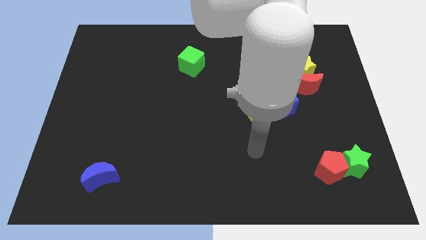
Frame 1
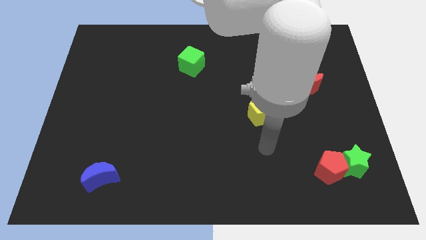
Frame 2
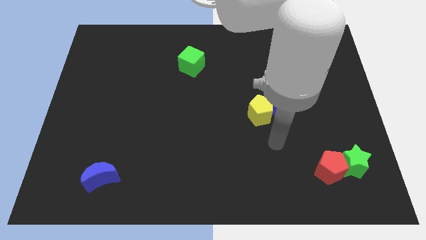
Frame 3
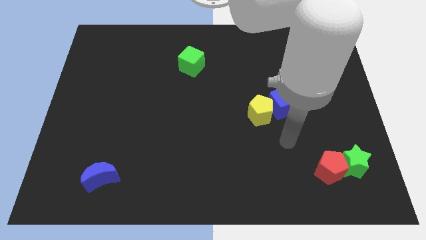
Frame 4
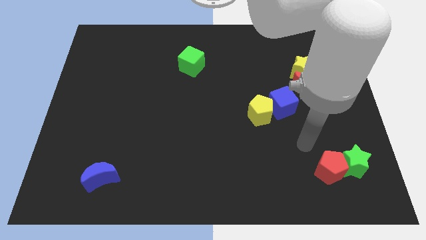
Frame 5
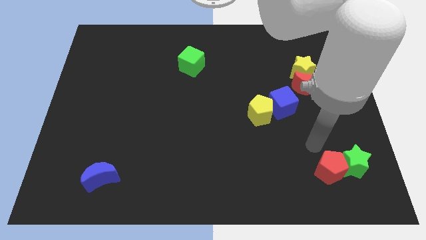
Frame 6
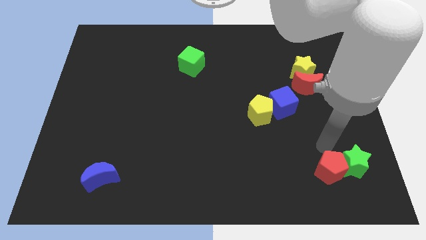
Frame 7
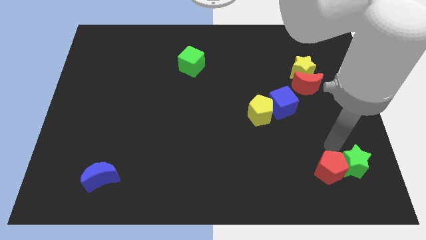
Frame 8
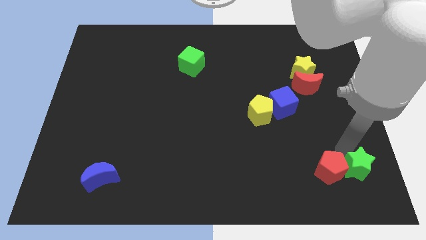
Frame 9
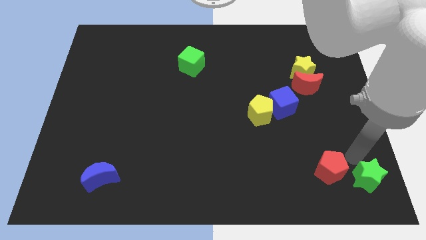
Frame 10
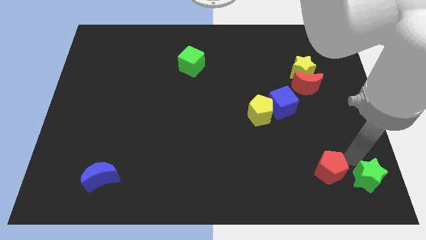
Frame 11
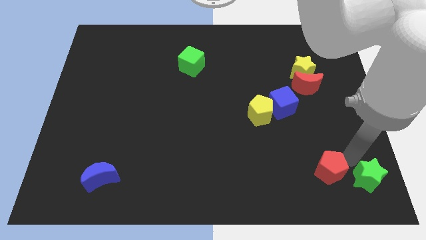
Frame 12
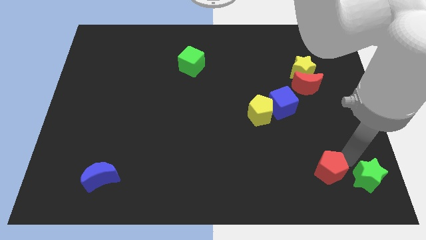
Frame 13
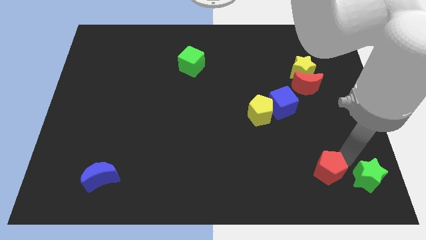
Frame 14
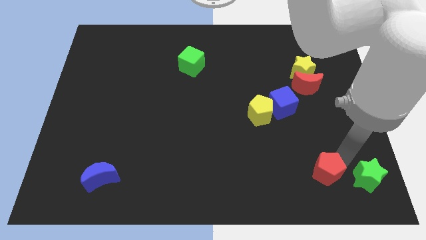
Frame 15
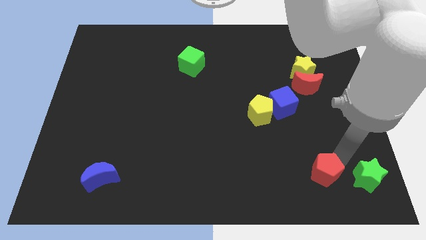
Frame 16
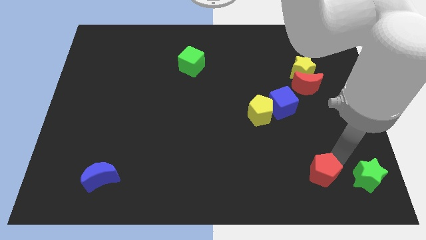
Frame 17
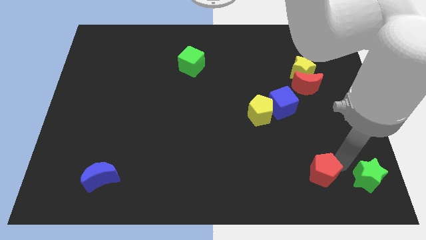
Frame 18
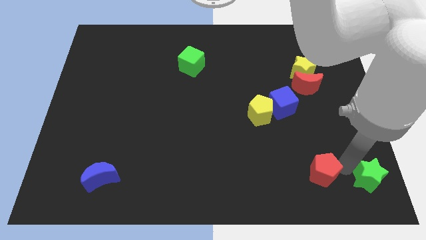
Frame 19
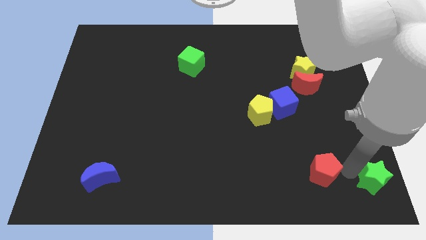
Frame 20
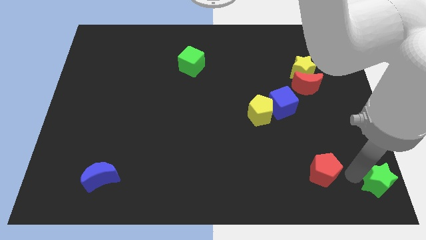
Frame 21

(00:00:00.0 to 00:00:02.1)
move the red pentagon away from the green star

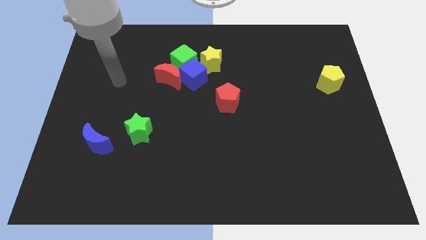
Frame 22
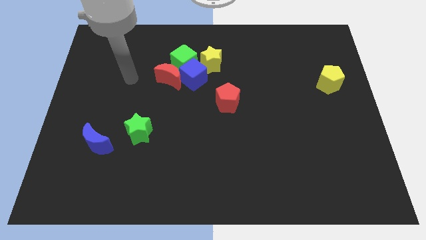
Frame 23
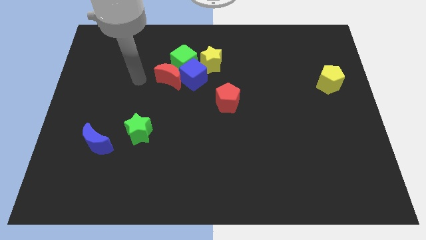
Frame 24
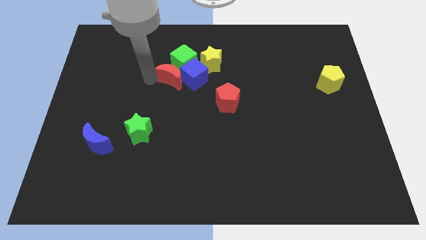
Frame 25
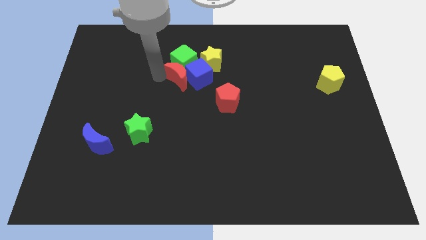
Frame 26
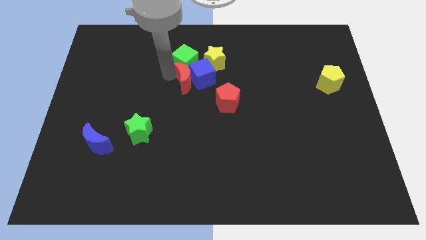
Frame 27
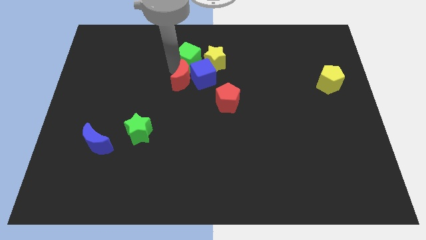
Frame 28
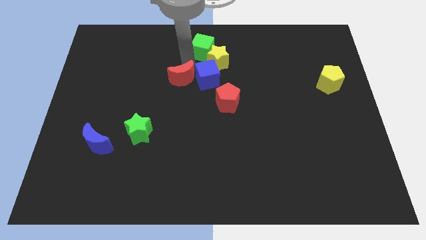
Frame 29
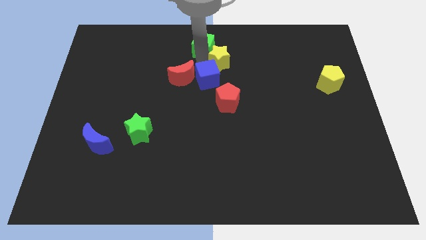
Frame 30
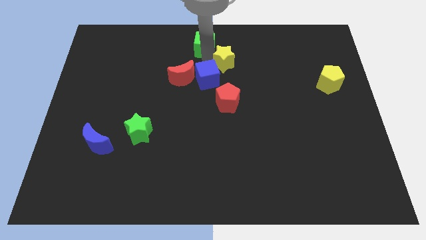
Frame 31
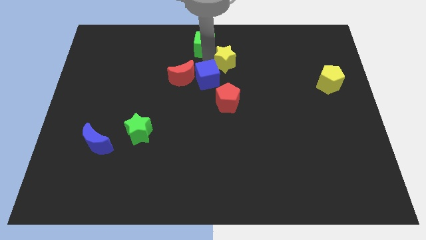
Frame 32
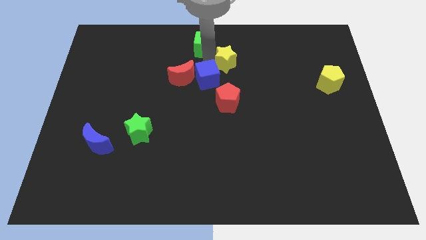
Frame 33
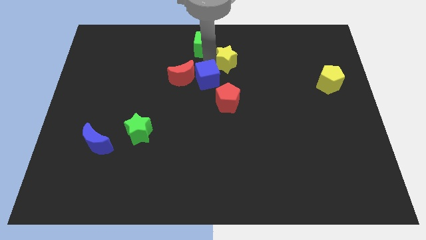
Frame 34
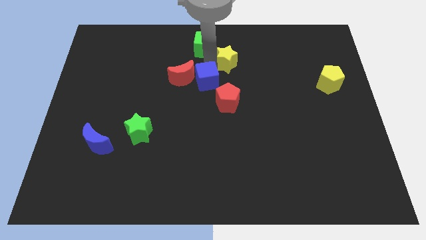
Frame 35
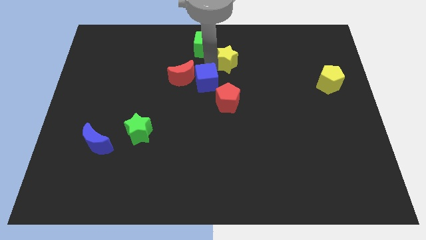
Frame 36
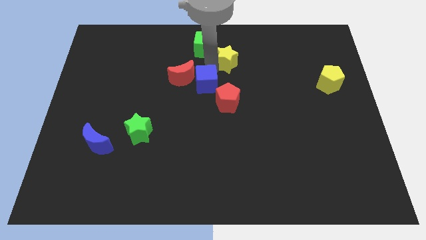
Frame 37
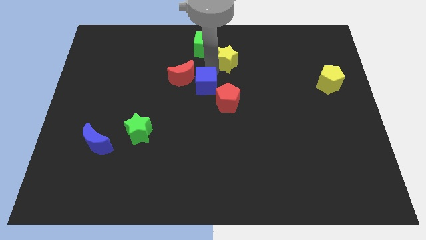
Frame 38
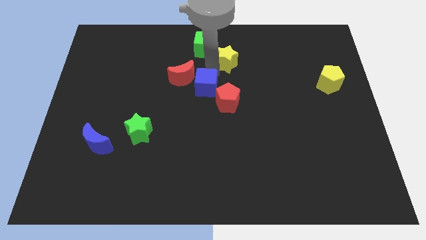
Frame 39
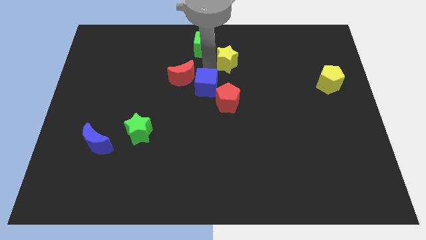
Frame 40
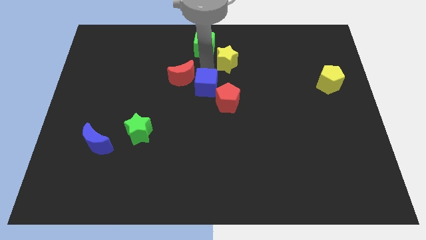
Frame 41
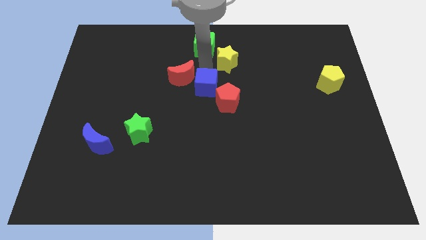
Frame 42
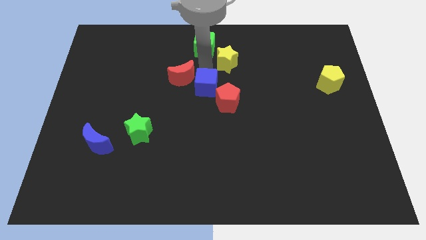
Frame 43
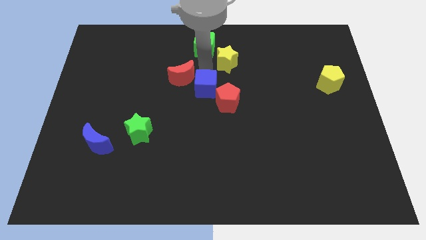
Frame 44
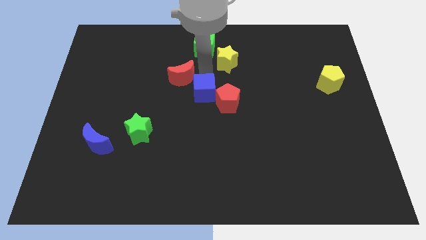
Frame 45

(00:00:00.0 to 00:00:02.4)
pull the blue cube apart from the green cube, red moon, and yellow star

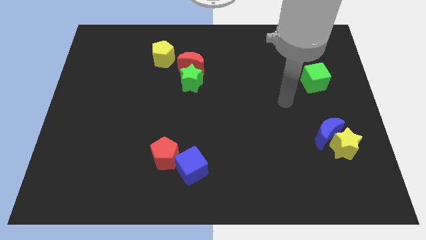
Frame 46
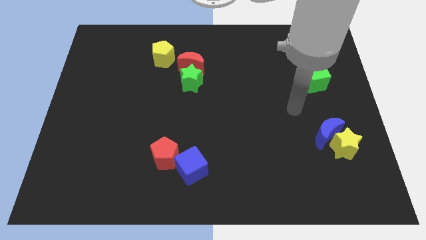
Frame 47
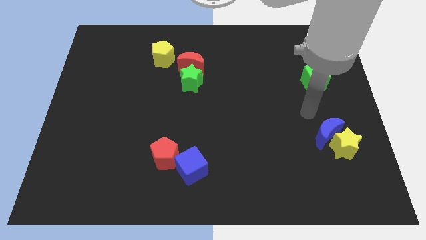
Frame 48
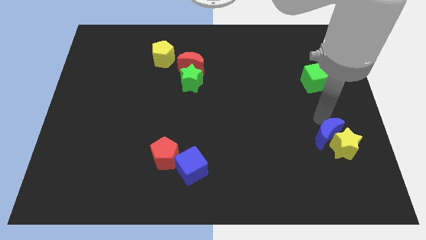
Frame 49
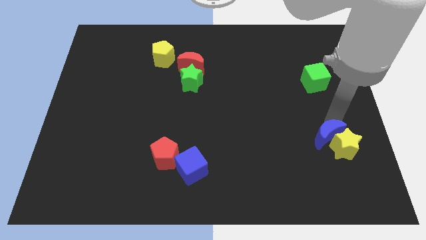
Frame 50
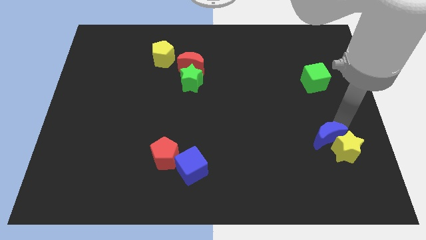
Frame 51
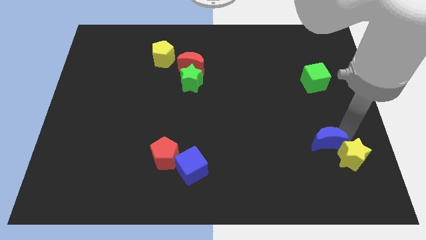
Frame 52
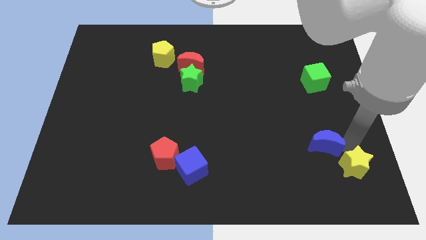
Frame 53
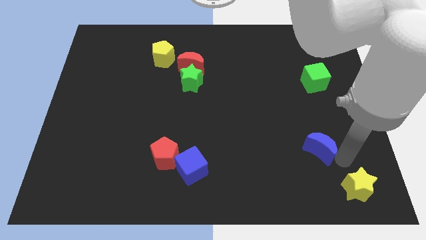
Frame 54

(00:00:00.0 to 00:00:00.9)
separate the blue moon from the yellow star

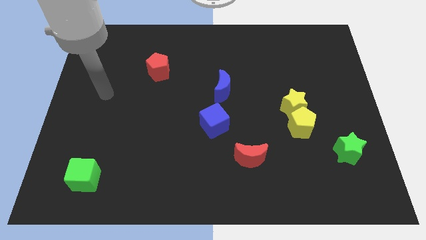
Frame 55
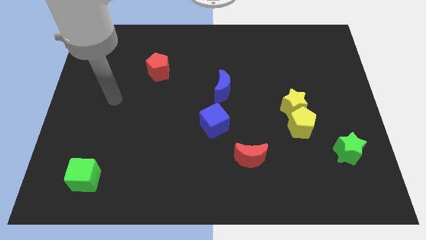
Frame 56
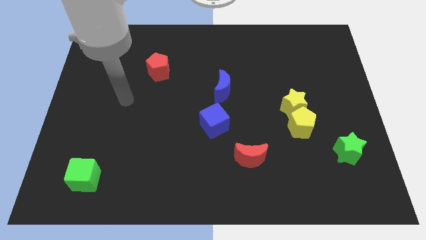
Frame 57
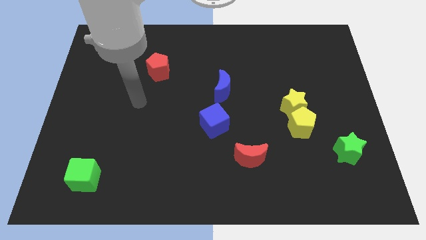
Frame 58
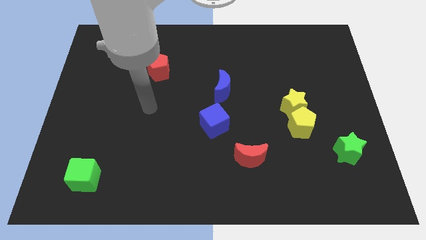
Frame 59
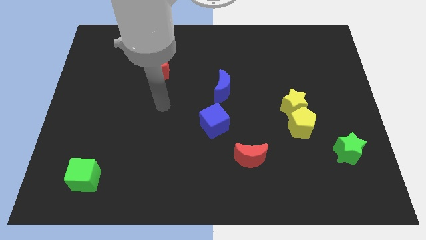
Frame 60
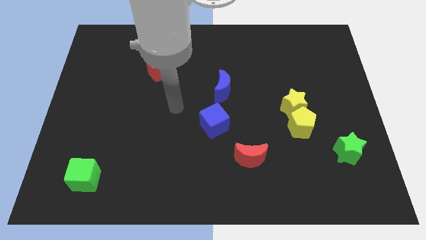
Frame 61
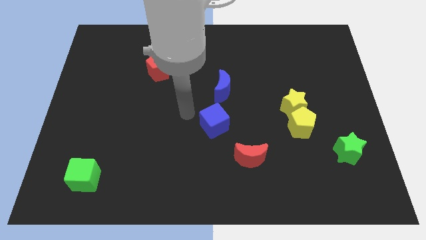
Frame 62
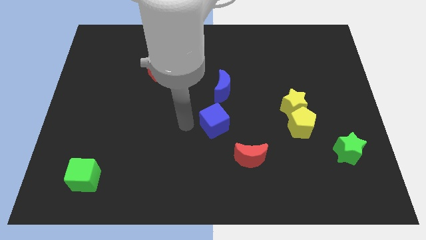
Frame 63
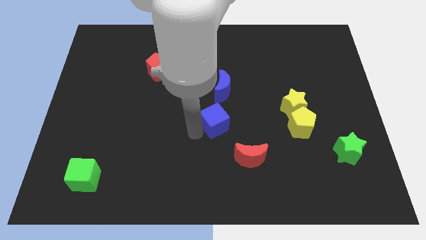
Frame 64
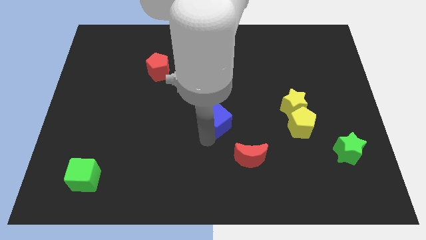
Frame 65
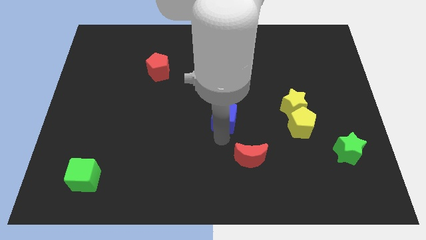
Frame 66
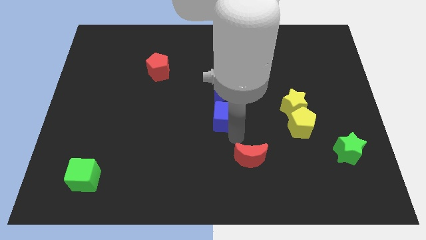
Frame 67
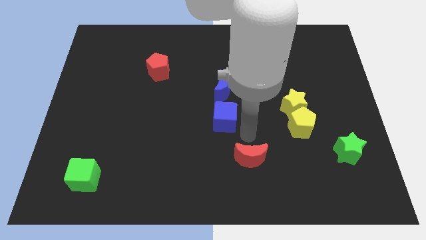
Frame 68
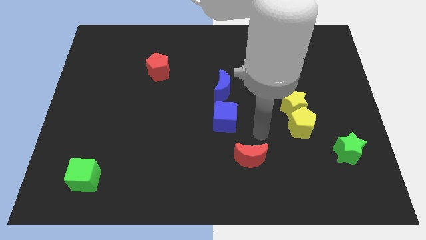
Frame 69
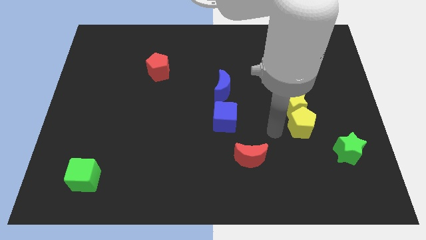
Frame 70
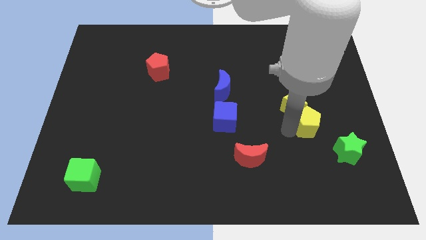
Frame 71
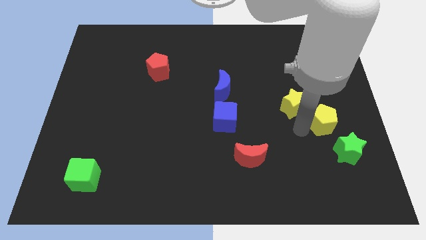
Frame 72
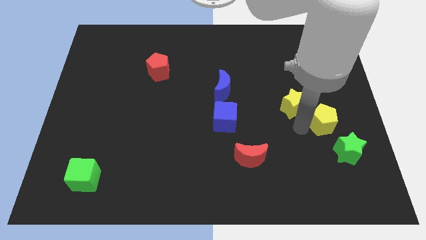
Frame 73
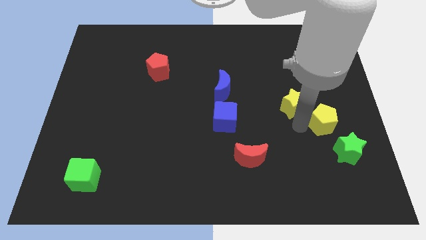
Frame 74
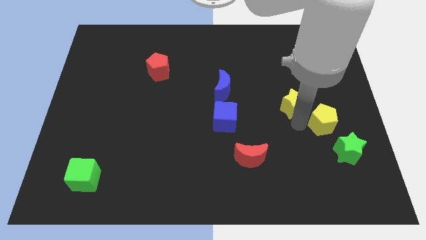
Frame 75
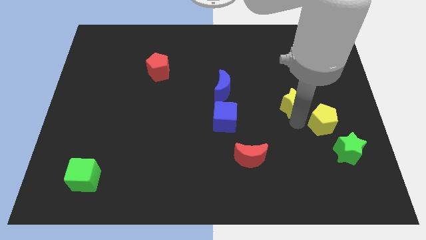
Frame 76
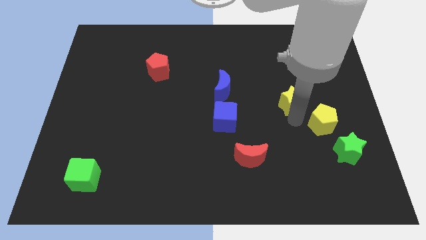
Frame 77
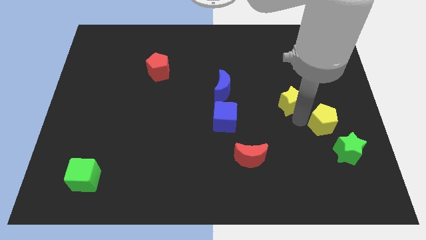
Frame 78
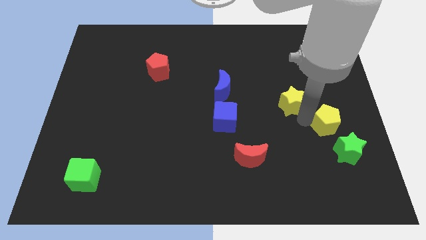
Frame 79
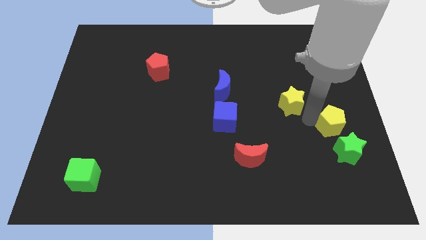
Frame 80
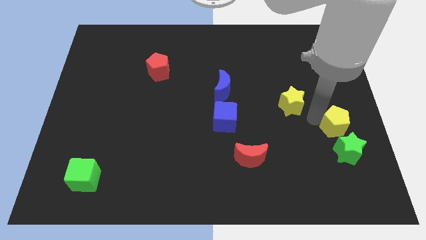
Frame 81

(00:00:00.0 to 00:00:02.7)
pull the yellow star apart from the yellow pentagon

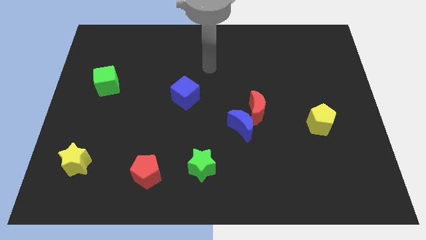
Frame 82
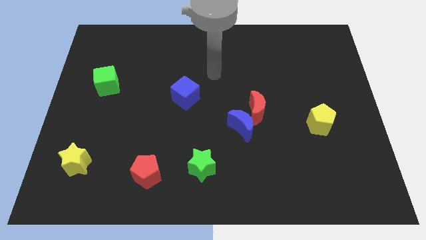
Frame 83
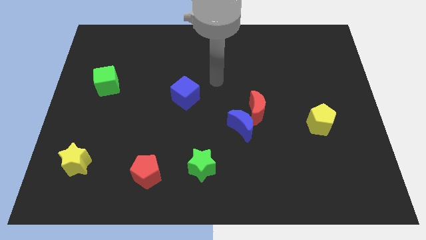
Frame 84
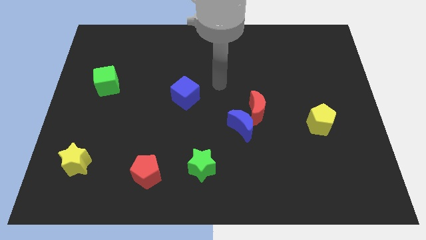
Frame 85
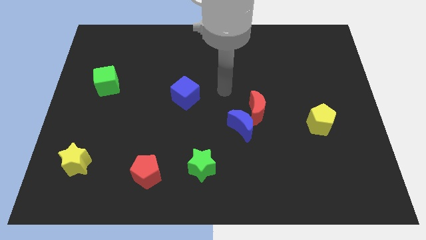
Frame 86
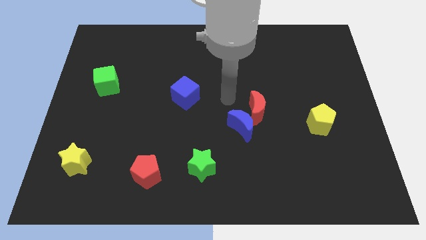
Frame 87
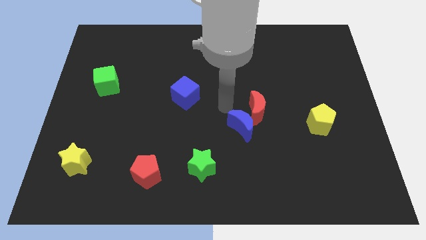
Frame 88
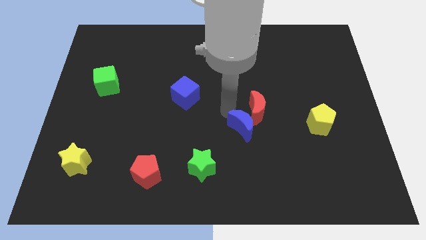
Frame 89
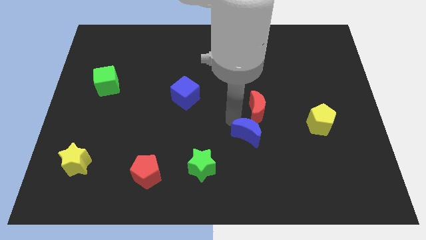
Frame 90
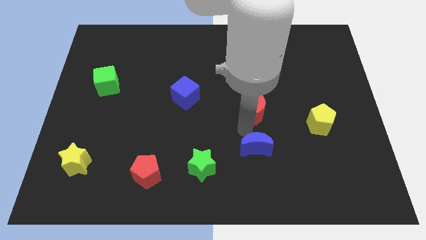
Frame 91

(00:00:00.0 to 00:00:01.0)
move the red moon away from the blue moon

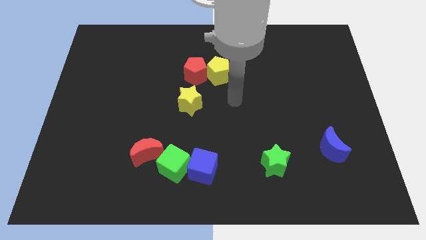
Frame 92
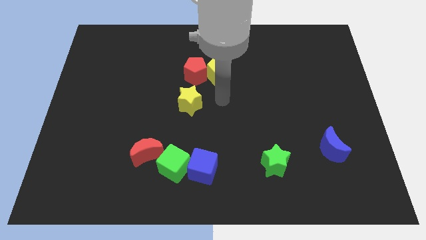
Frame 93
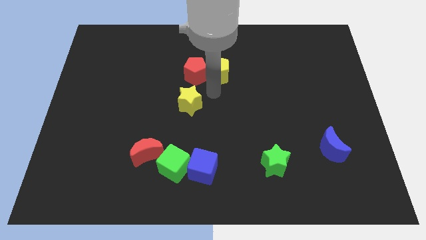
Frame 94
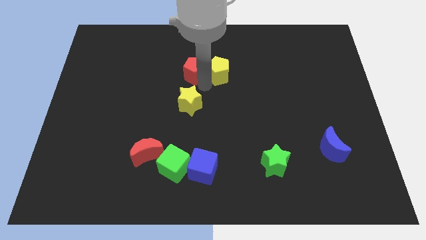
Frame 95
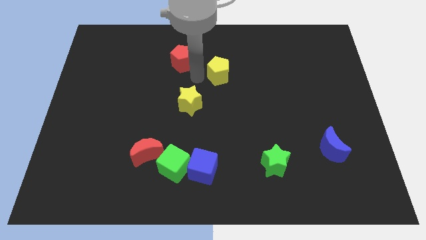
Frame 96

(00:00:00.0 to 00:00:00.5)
pull the yellow pentagon apart from the red pentagon
